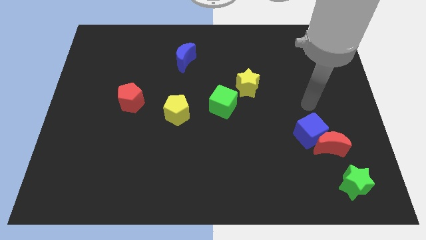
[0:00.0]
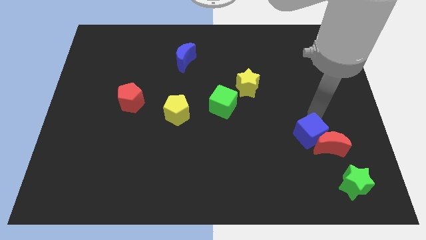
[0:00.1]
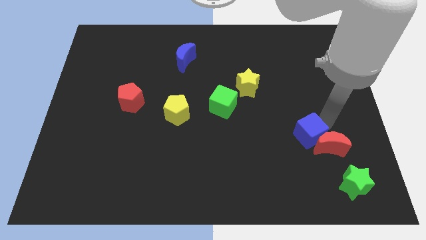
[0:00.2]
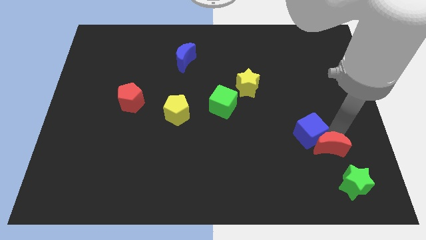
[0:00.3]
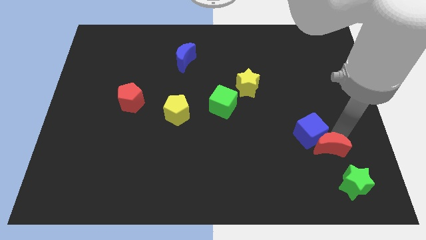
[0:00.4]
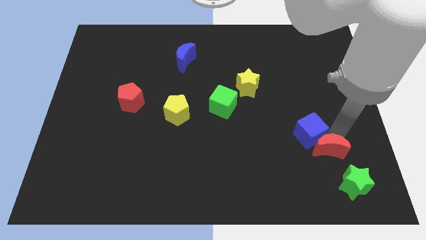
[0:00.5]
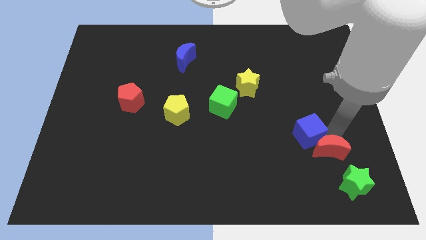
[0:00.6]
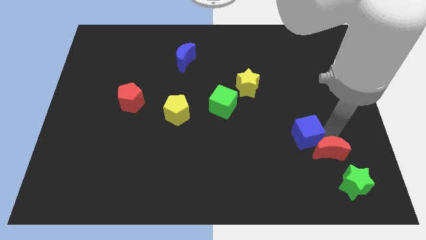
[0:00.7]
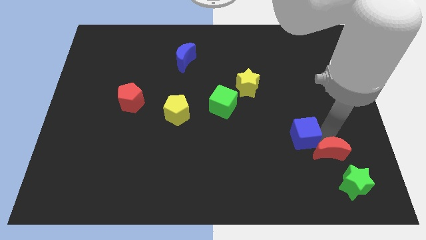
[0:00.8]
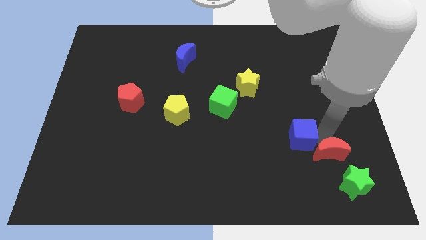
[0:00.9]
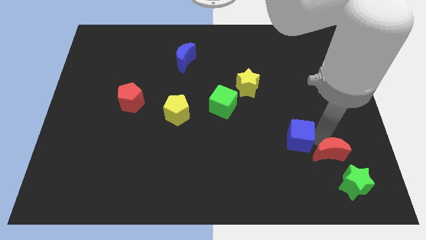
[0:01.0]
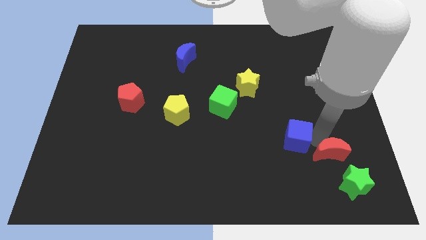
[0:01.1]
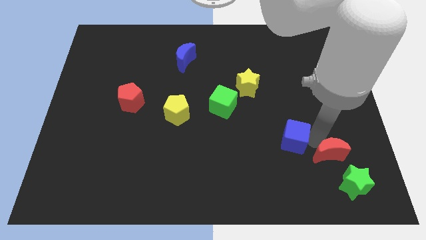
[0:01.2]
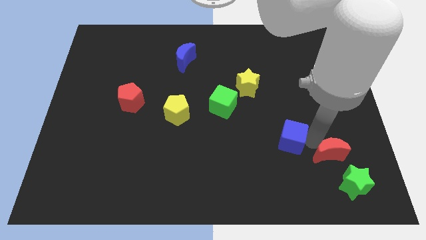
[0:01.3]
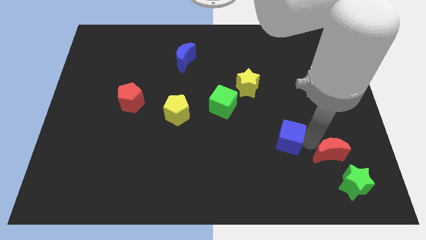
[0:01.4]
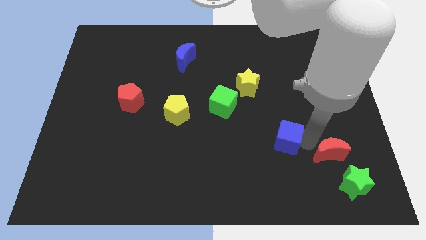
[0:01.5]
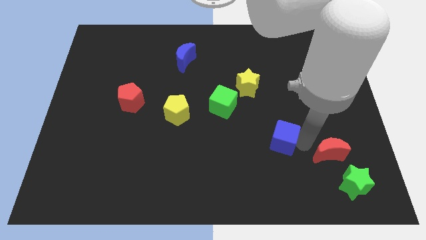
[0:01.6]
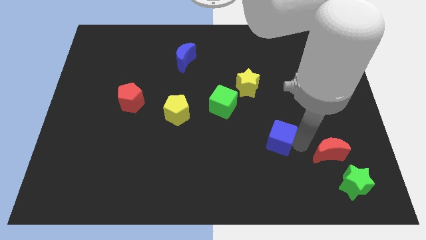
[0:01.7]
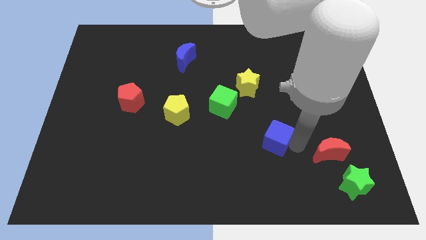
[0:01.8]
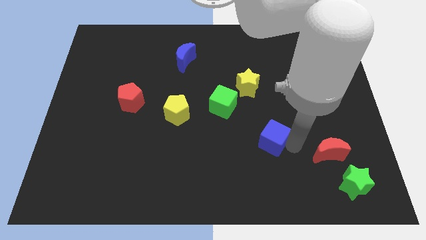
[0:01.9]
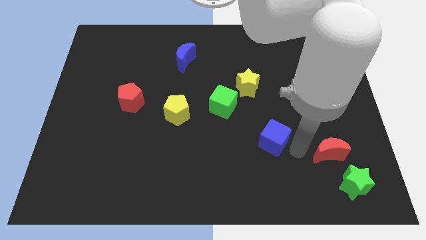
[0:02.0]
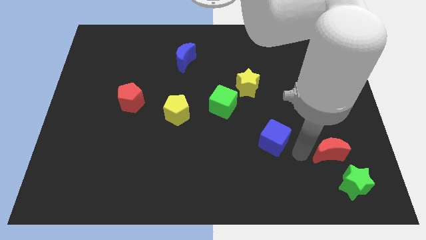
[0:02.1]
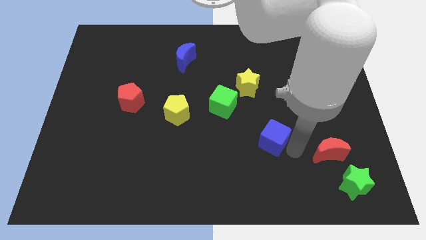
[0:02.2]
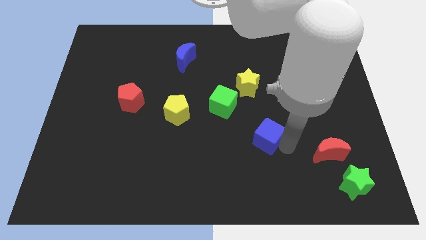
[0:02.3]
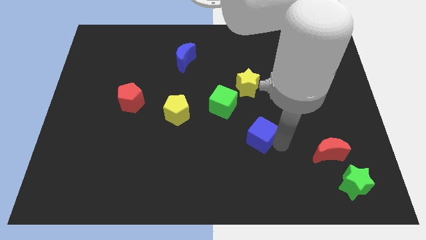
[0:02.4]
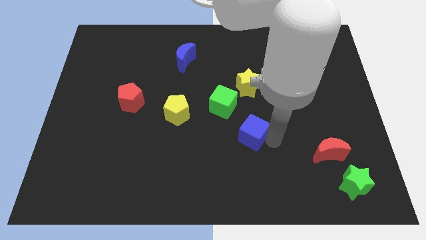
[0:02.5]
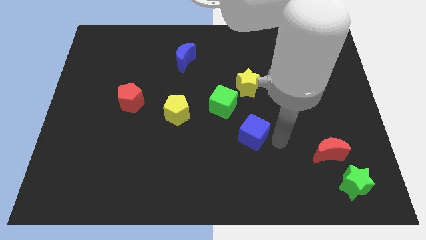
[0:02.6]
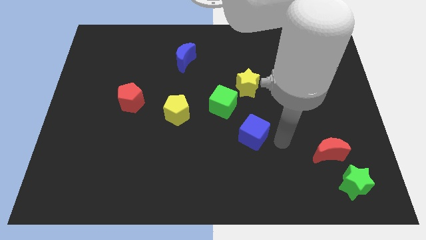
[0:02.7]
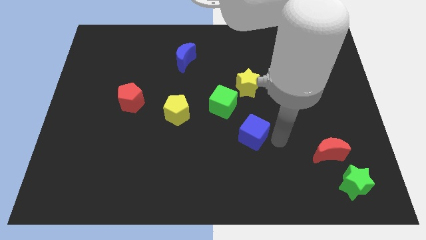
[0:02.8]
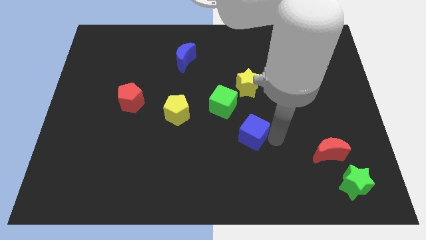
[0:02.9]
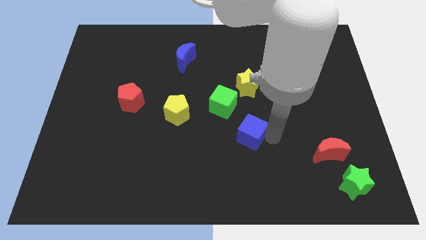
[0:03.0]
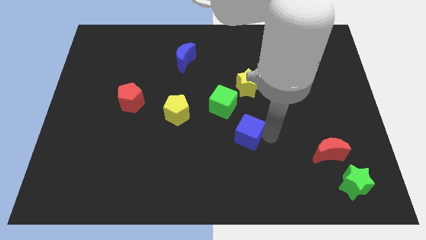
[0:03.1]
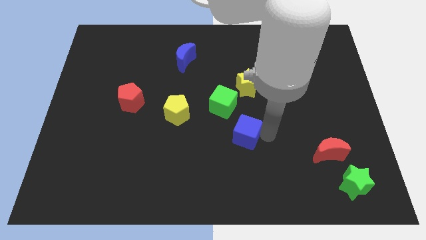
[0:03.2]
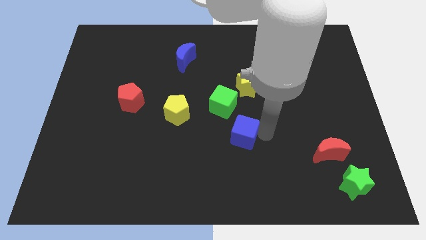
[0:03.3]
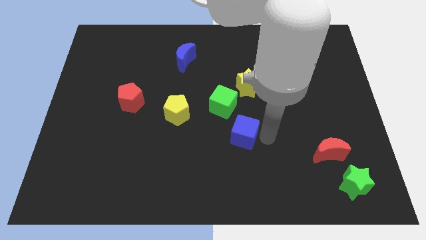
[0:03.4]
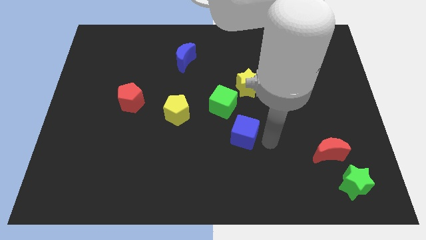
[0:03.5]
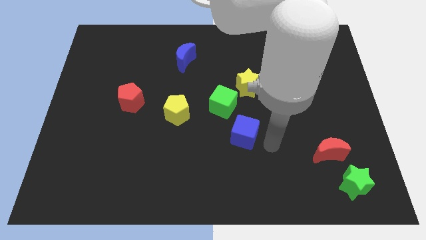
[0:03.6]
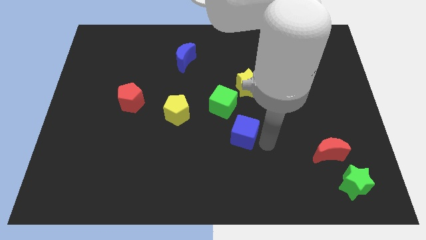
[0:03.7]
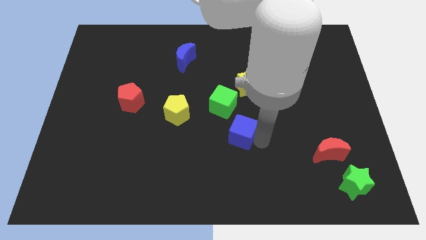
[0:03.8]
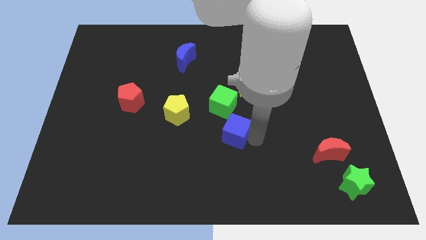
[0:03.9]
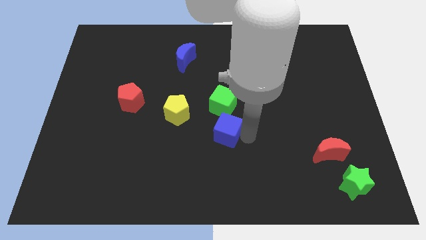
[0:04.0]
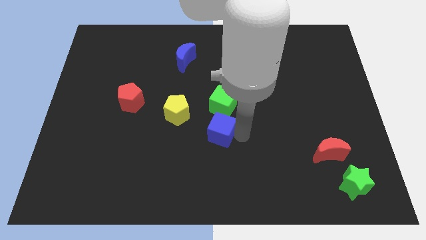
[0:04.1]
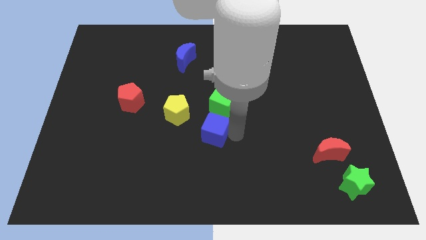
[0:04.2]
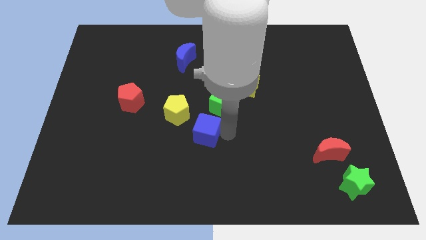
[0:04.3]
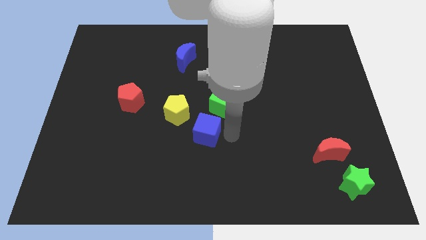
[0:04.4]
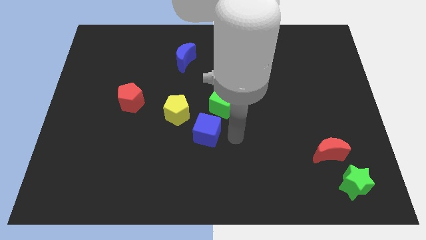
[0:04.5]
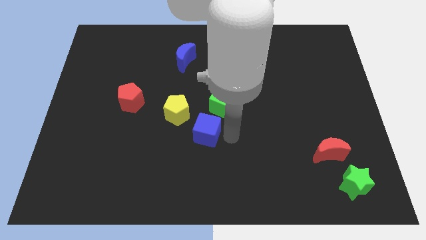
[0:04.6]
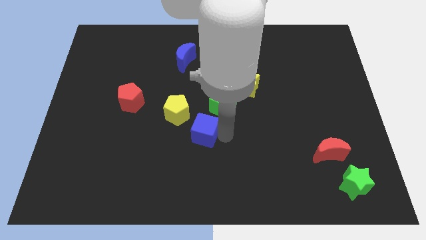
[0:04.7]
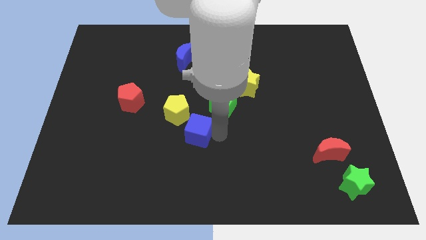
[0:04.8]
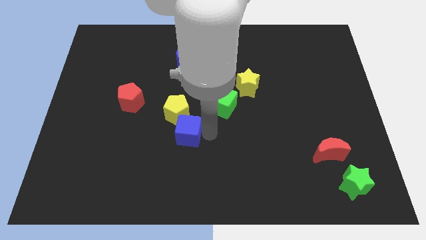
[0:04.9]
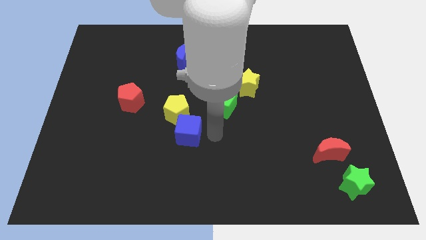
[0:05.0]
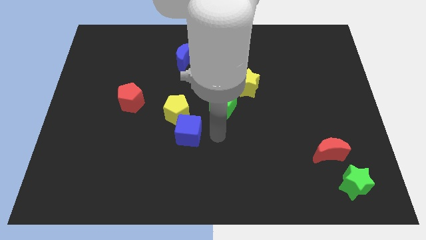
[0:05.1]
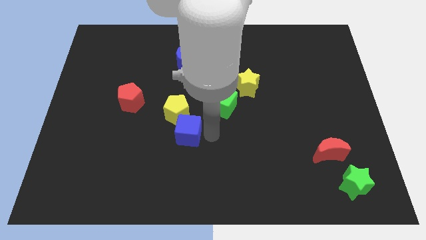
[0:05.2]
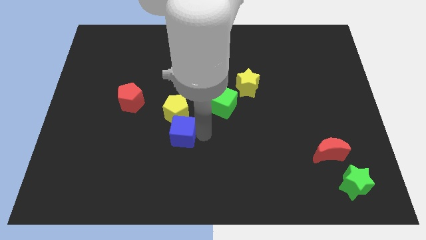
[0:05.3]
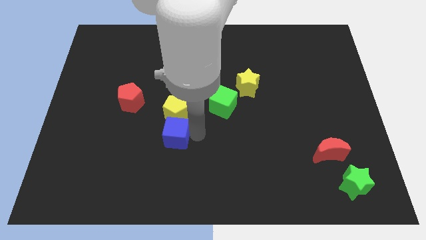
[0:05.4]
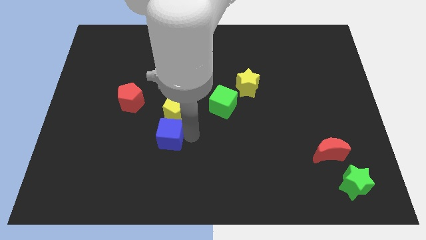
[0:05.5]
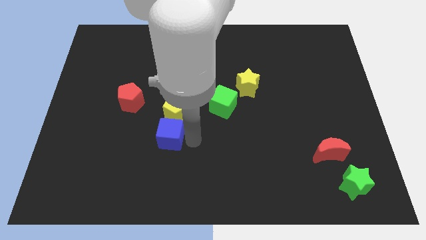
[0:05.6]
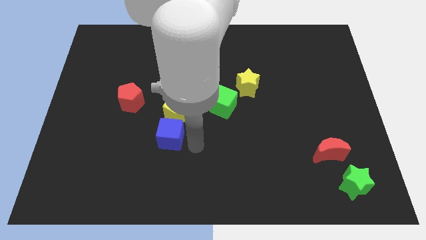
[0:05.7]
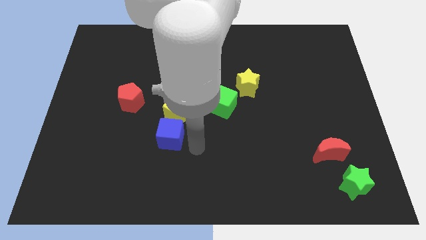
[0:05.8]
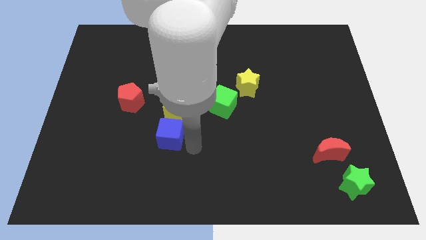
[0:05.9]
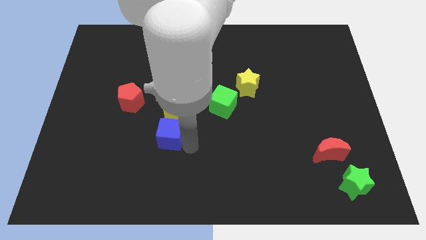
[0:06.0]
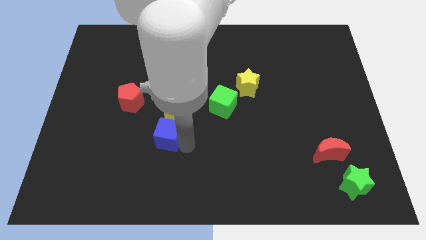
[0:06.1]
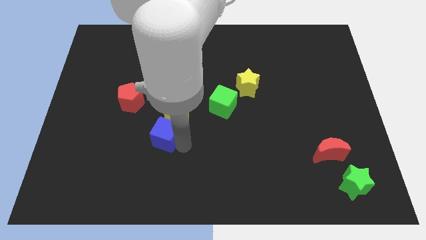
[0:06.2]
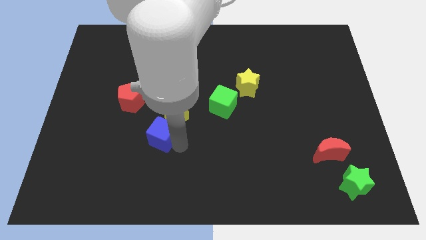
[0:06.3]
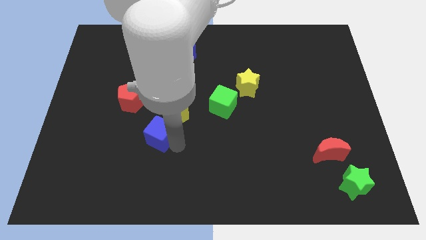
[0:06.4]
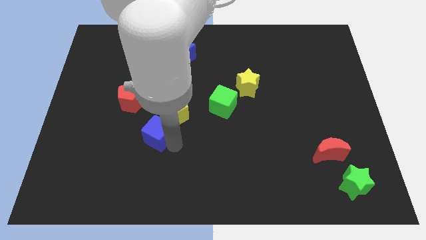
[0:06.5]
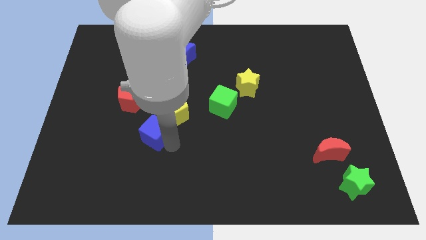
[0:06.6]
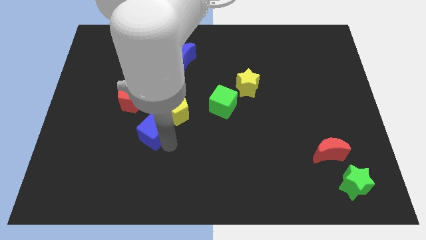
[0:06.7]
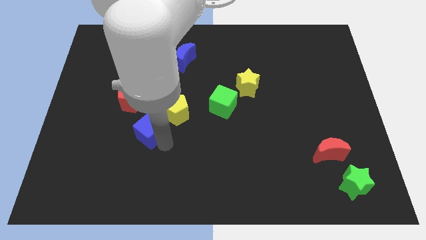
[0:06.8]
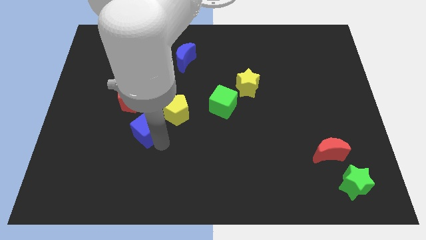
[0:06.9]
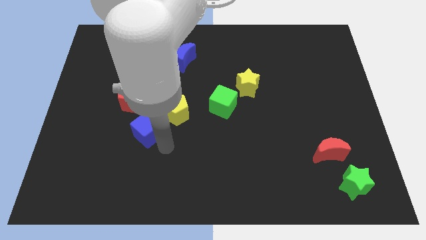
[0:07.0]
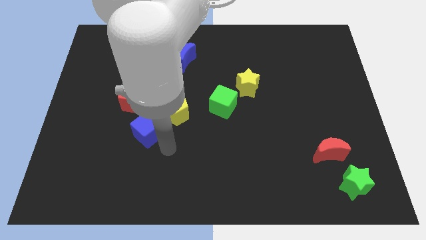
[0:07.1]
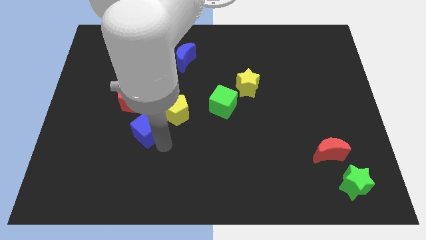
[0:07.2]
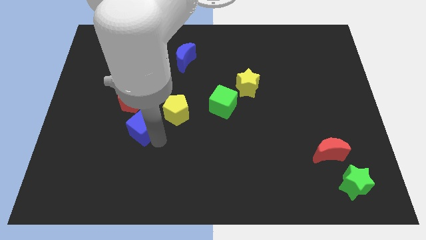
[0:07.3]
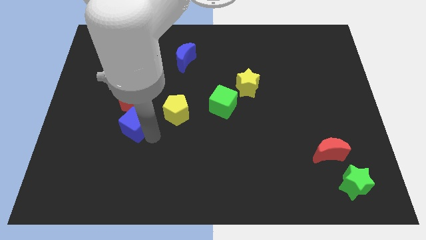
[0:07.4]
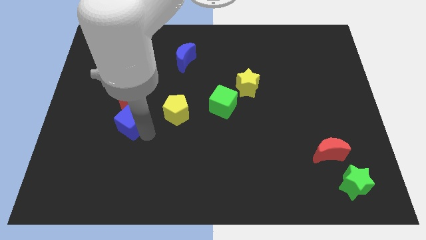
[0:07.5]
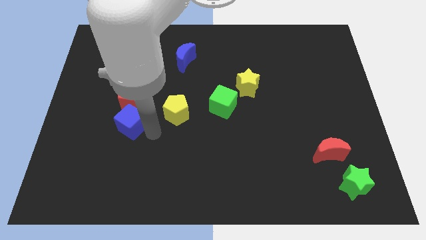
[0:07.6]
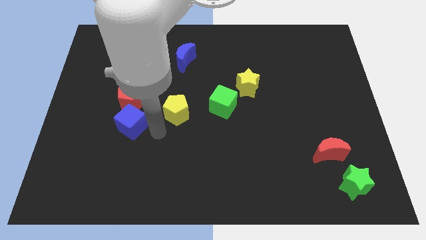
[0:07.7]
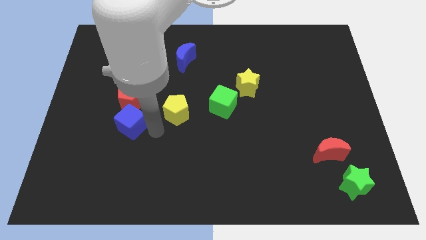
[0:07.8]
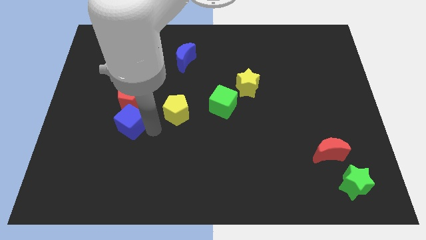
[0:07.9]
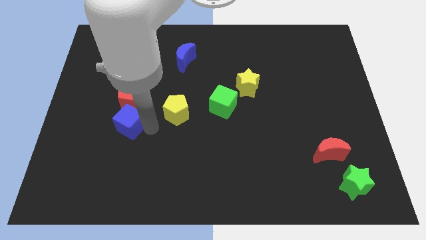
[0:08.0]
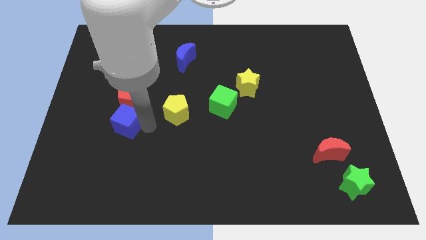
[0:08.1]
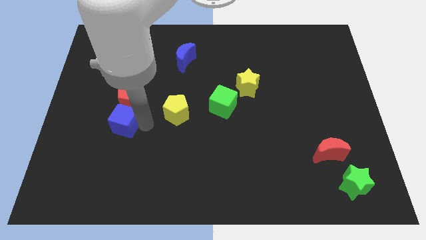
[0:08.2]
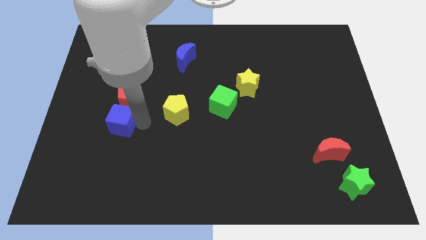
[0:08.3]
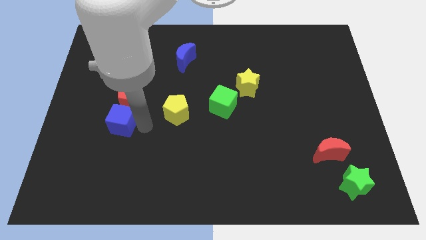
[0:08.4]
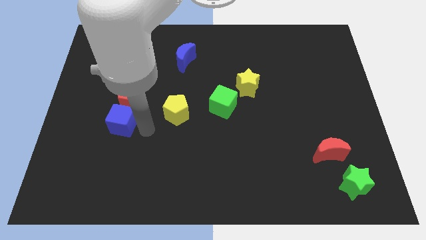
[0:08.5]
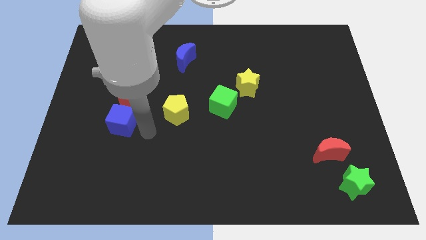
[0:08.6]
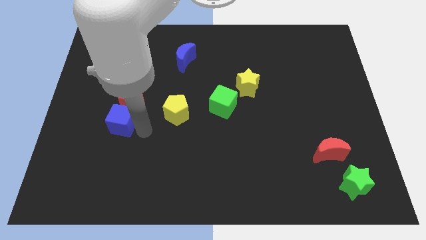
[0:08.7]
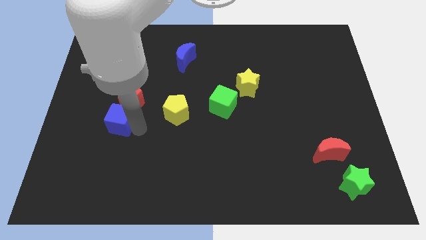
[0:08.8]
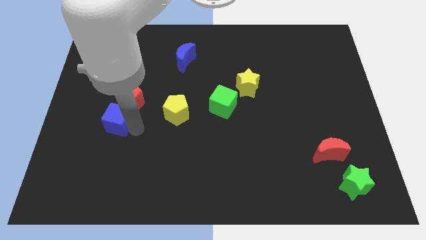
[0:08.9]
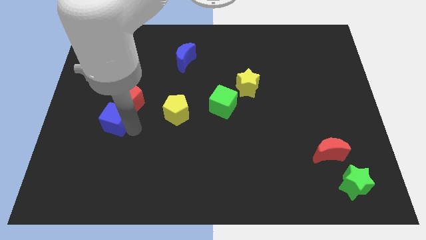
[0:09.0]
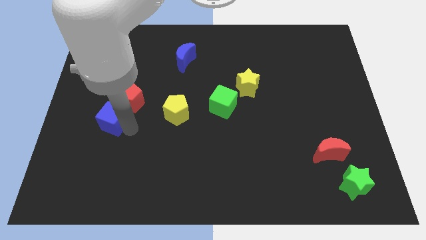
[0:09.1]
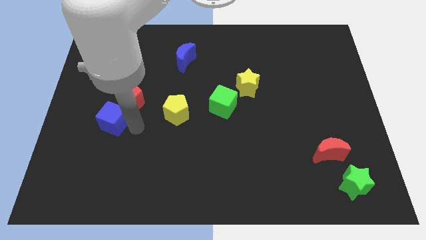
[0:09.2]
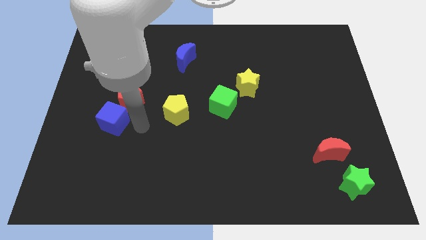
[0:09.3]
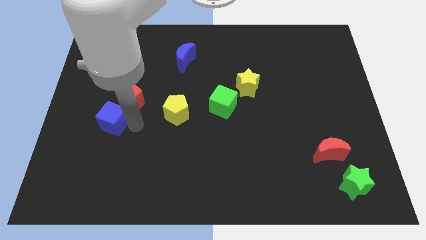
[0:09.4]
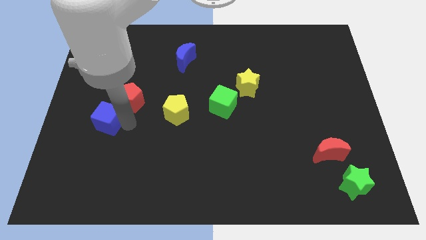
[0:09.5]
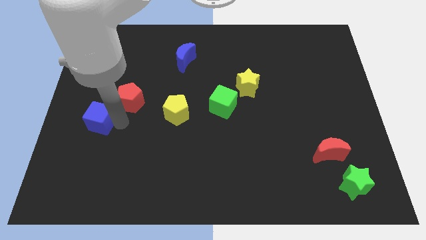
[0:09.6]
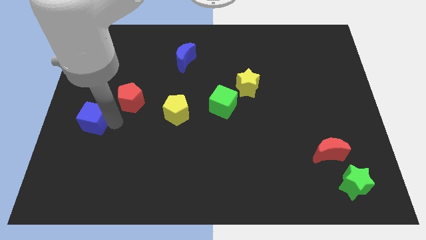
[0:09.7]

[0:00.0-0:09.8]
push the blue cube to the left side
